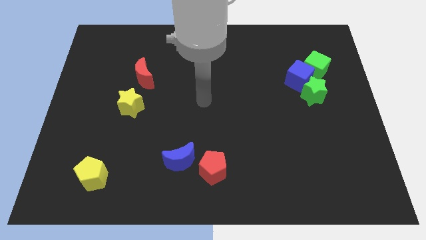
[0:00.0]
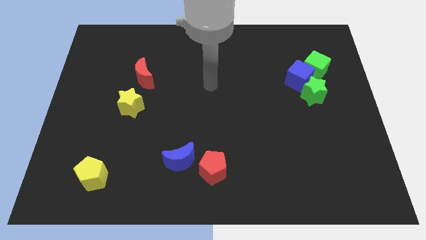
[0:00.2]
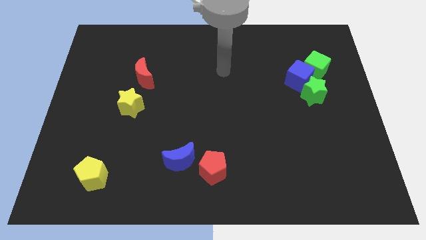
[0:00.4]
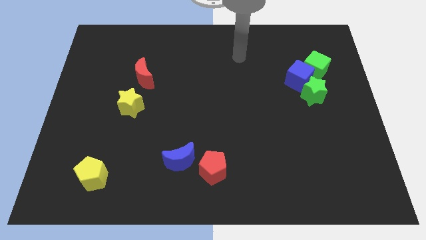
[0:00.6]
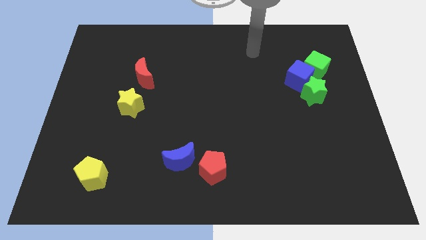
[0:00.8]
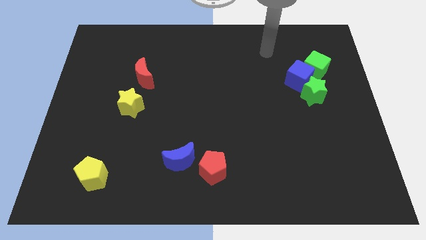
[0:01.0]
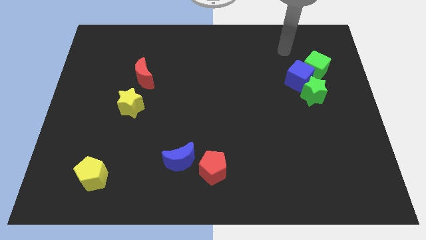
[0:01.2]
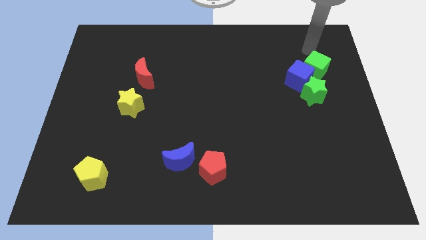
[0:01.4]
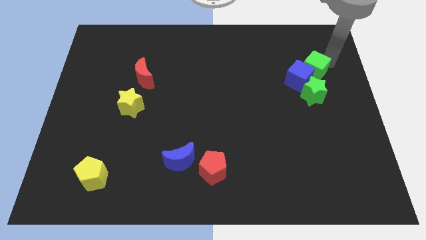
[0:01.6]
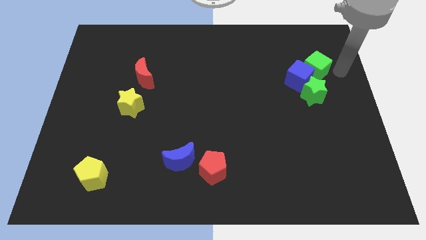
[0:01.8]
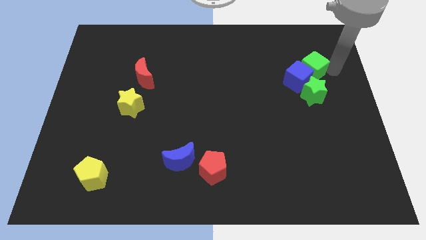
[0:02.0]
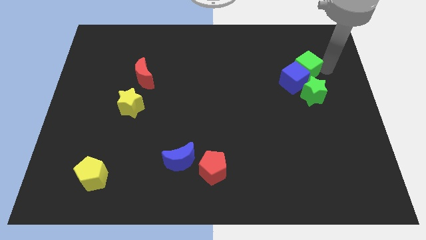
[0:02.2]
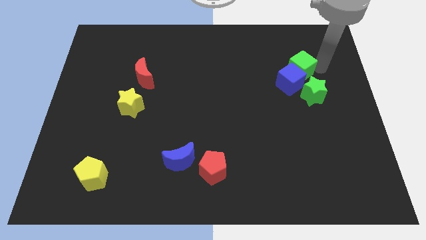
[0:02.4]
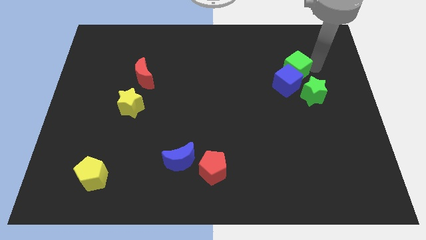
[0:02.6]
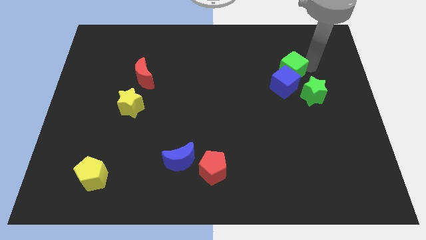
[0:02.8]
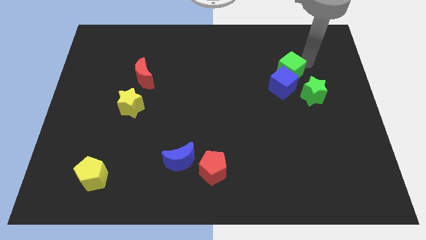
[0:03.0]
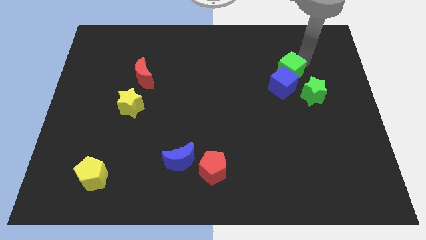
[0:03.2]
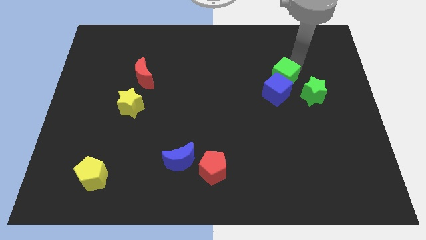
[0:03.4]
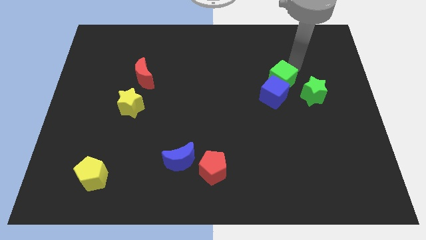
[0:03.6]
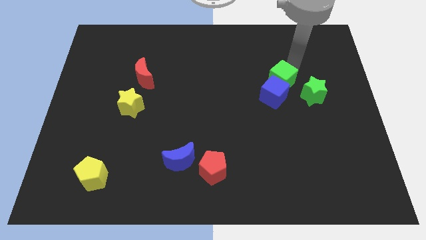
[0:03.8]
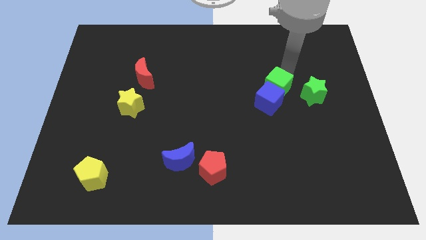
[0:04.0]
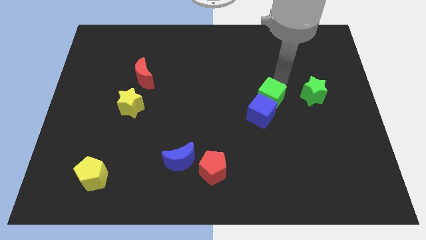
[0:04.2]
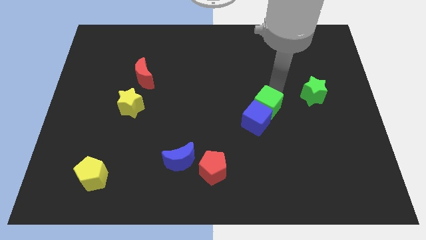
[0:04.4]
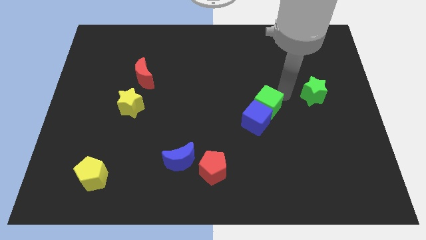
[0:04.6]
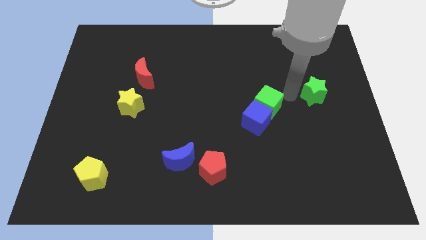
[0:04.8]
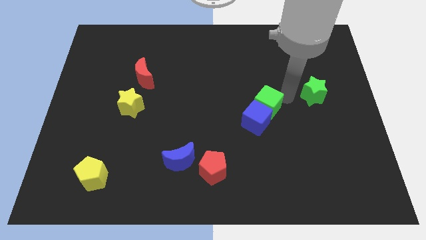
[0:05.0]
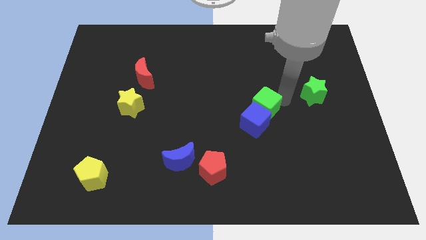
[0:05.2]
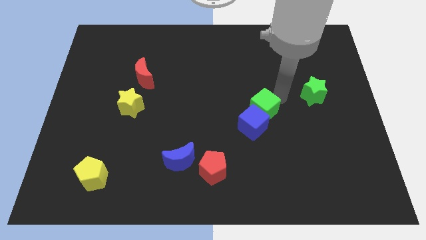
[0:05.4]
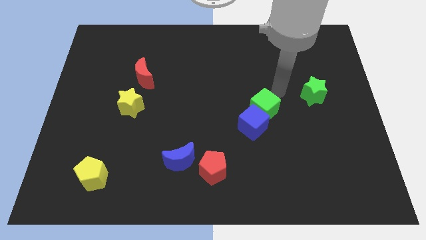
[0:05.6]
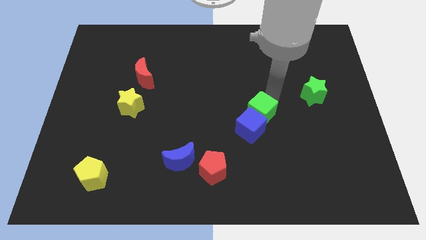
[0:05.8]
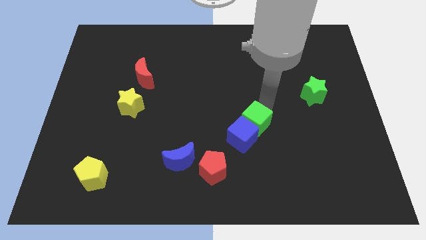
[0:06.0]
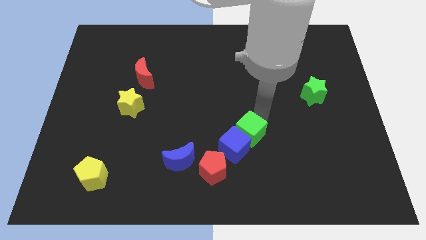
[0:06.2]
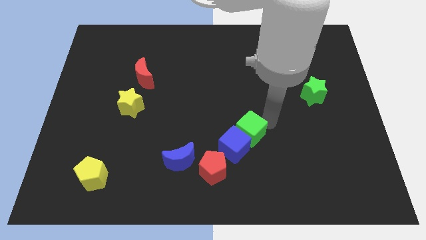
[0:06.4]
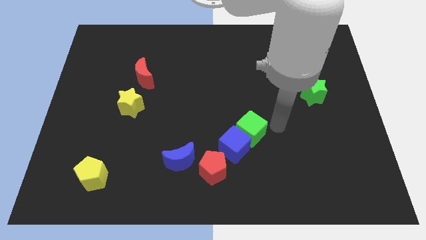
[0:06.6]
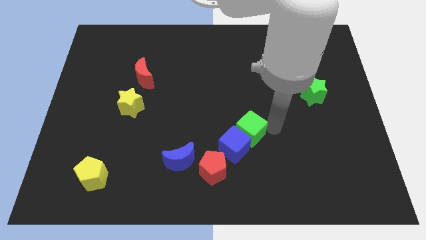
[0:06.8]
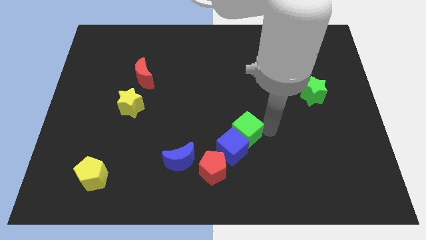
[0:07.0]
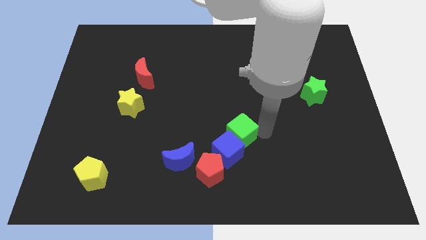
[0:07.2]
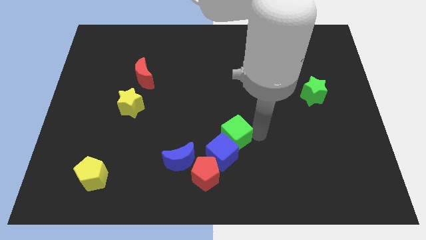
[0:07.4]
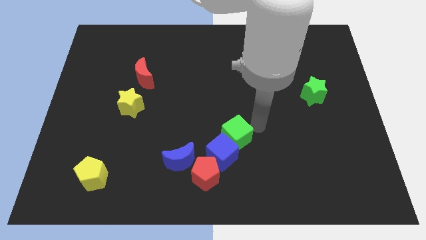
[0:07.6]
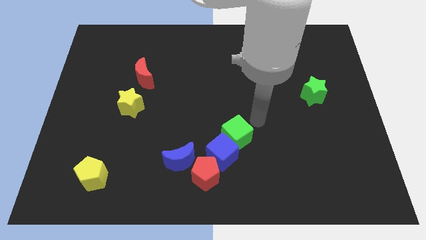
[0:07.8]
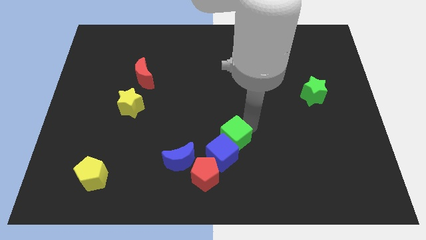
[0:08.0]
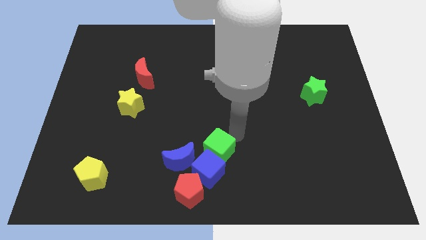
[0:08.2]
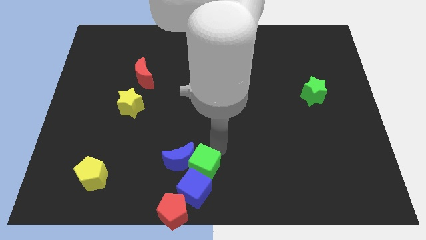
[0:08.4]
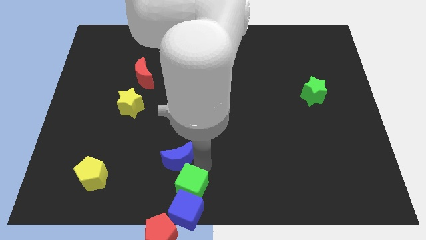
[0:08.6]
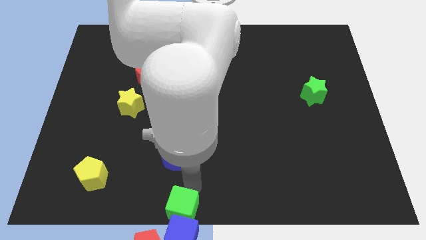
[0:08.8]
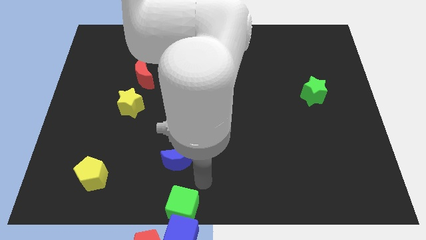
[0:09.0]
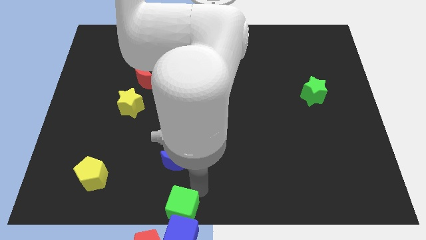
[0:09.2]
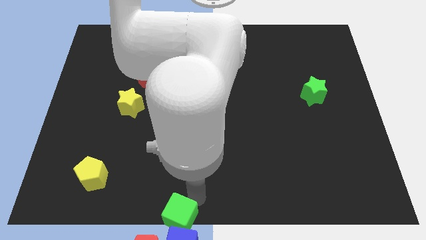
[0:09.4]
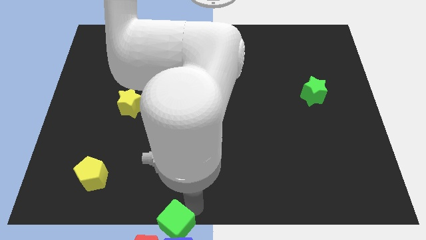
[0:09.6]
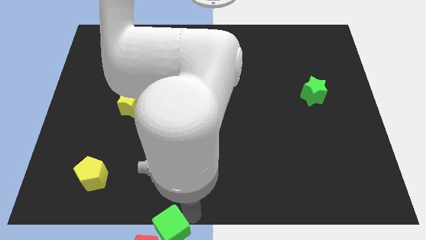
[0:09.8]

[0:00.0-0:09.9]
slide the green cube towards the red pentagon

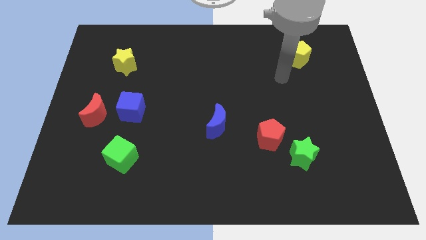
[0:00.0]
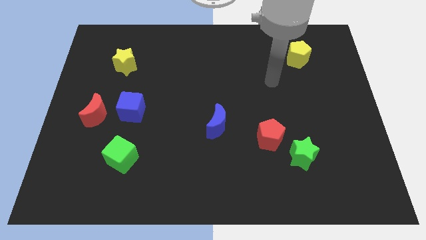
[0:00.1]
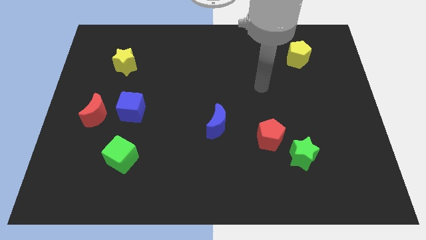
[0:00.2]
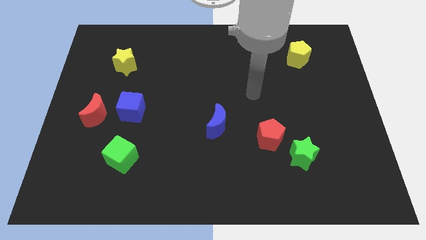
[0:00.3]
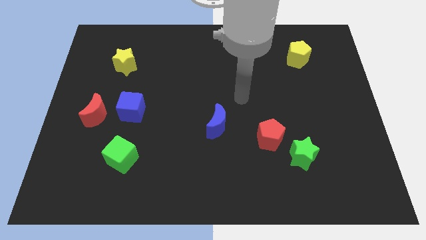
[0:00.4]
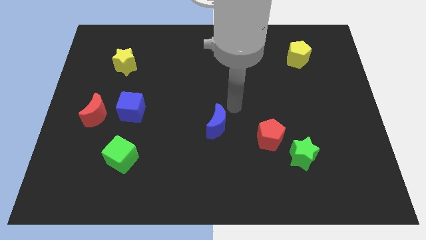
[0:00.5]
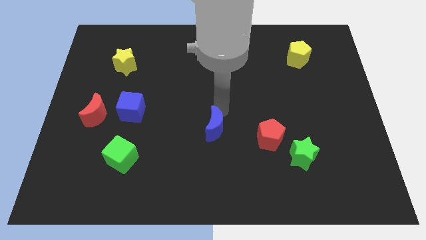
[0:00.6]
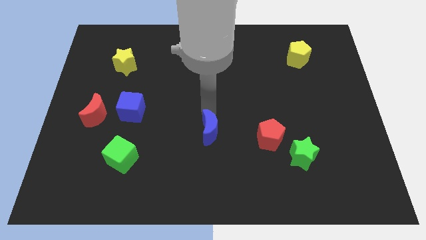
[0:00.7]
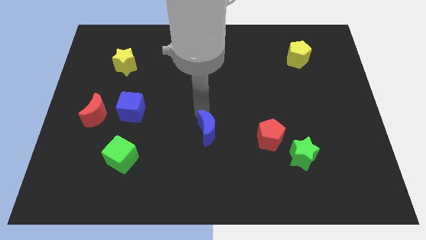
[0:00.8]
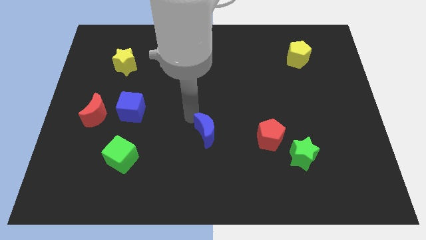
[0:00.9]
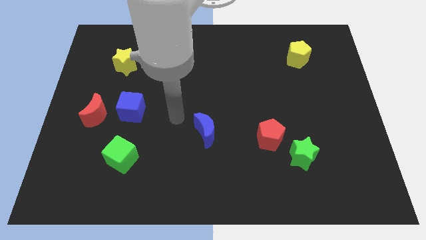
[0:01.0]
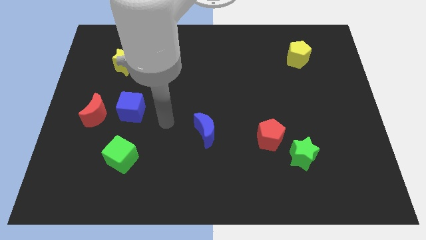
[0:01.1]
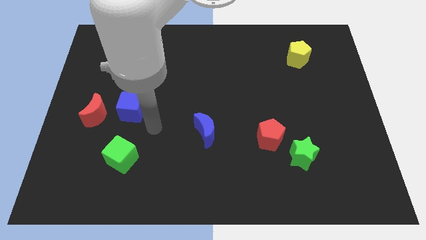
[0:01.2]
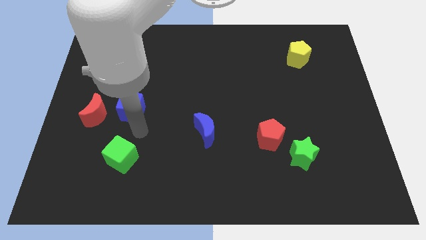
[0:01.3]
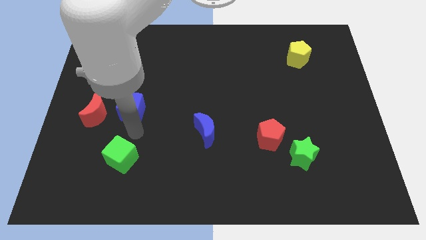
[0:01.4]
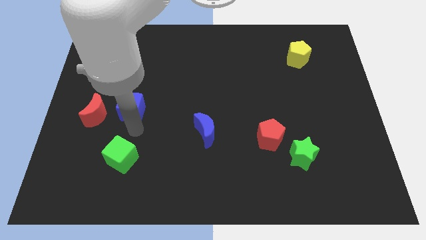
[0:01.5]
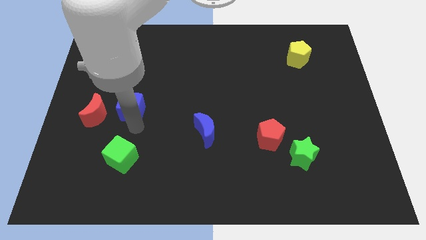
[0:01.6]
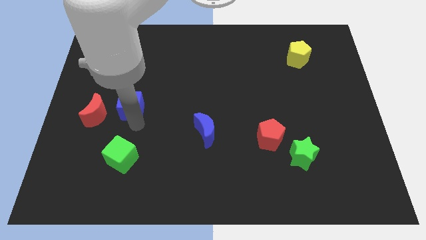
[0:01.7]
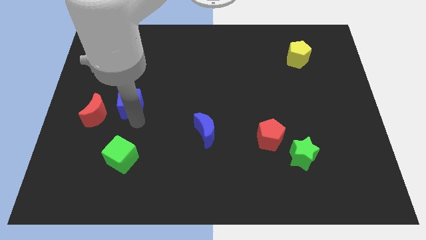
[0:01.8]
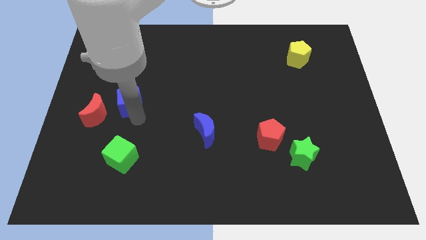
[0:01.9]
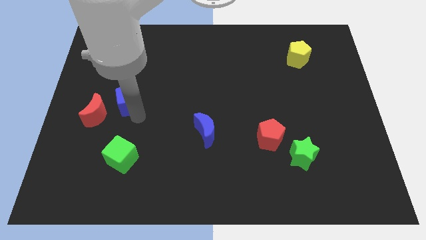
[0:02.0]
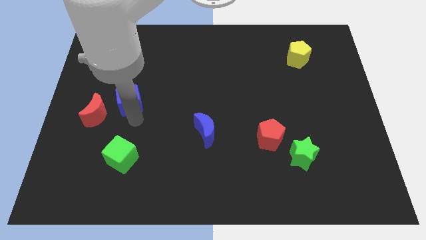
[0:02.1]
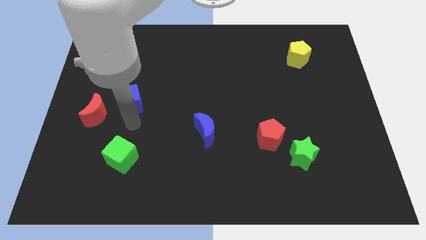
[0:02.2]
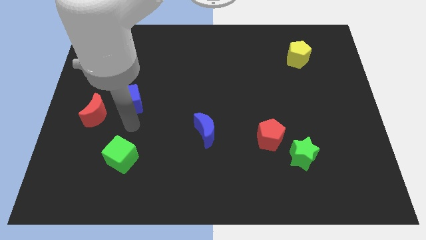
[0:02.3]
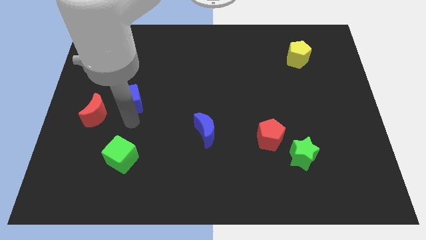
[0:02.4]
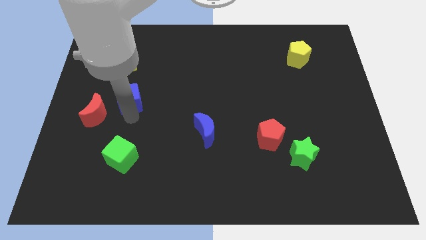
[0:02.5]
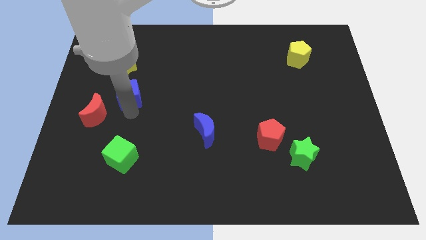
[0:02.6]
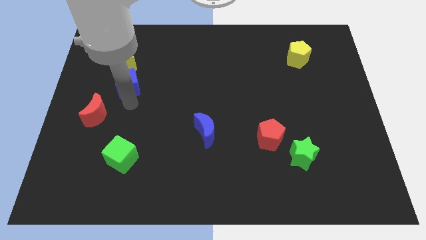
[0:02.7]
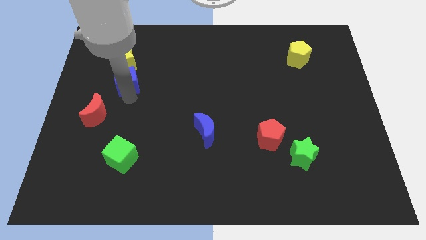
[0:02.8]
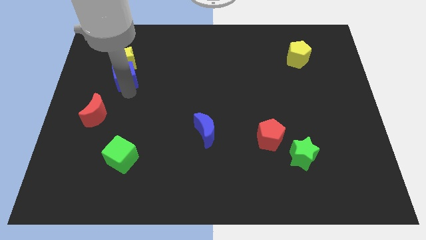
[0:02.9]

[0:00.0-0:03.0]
move the blue cube close to the yellow star
